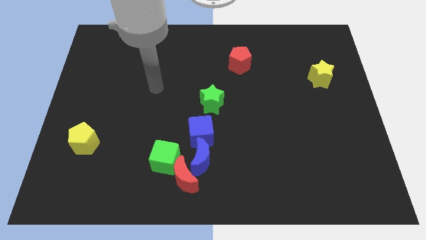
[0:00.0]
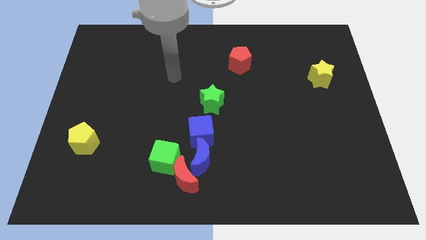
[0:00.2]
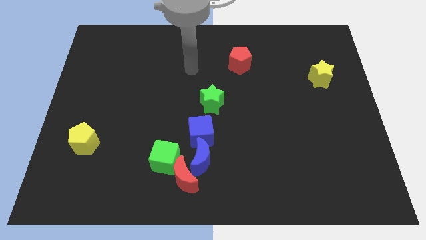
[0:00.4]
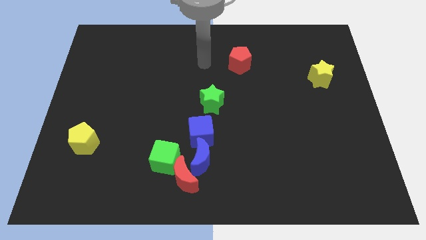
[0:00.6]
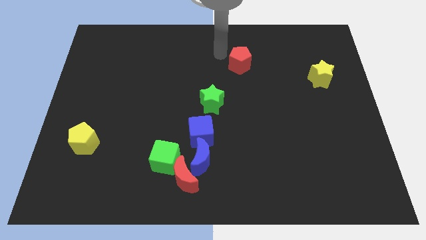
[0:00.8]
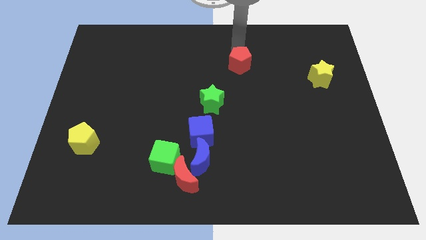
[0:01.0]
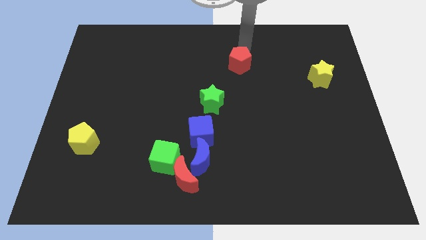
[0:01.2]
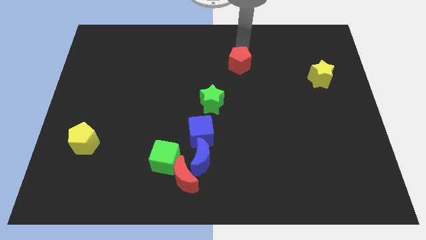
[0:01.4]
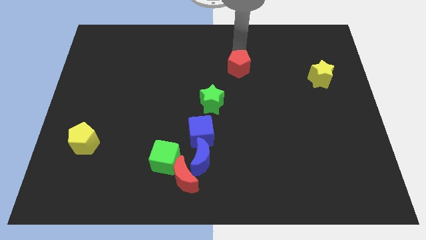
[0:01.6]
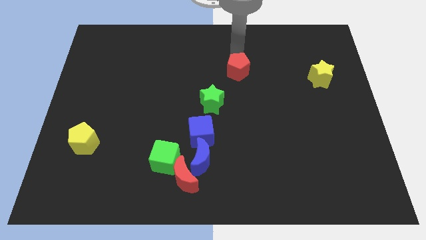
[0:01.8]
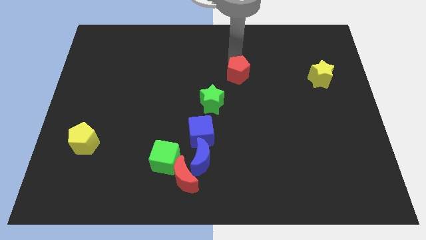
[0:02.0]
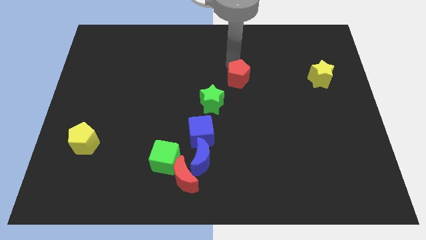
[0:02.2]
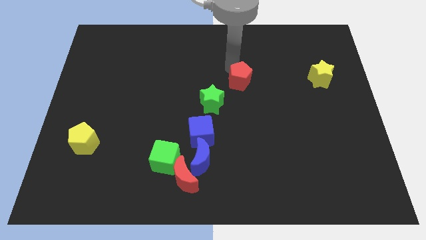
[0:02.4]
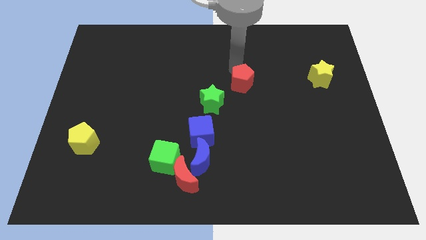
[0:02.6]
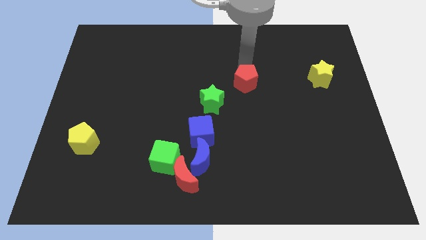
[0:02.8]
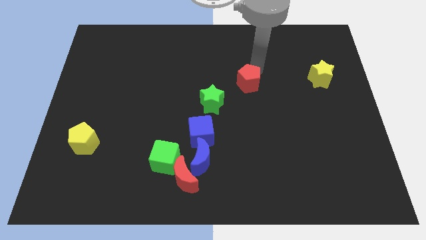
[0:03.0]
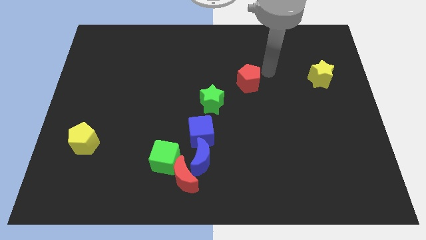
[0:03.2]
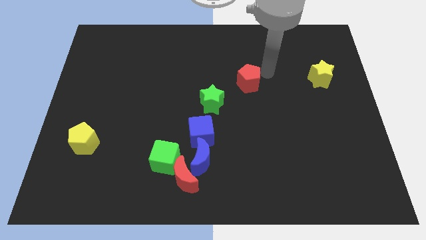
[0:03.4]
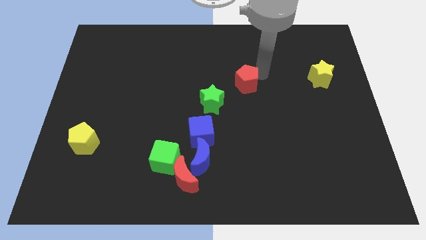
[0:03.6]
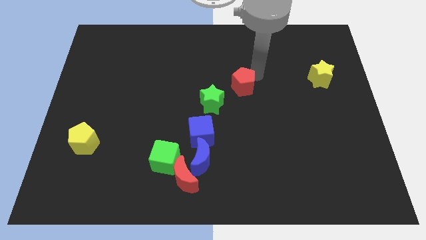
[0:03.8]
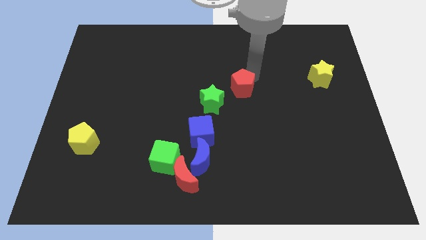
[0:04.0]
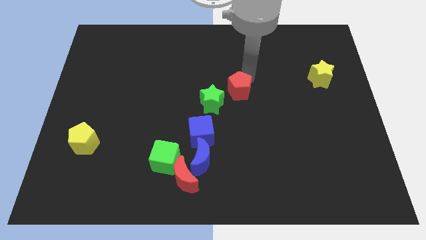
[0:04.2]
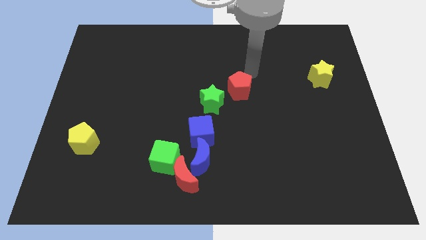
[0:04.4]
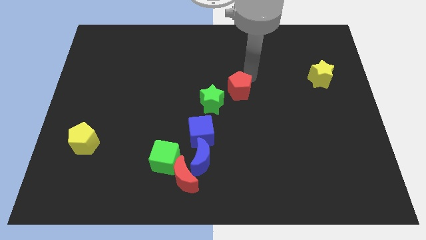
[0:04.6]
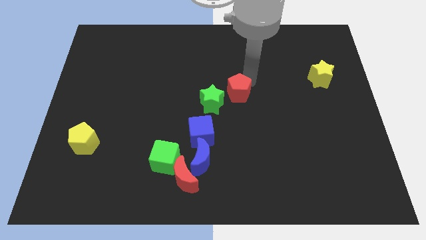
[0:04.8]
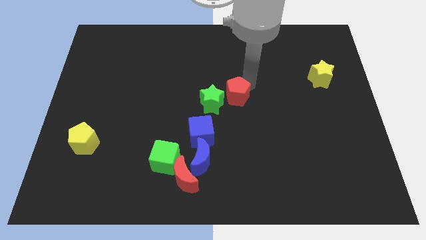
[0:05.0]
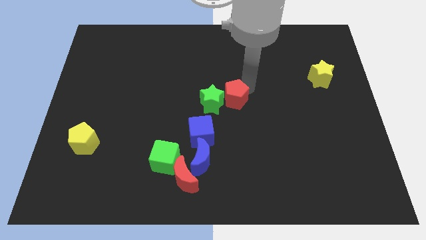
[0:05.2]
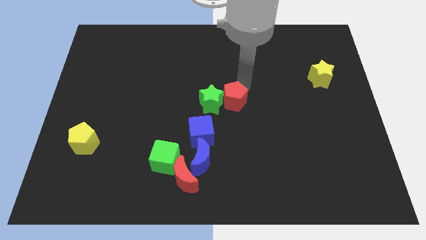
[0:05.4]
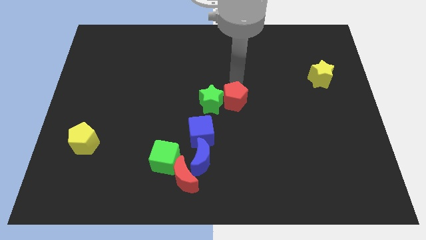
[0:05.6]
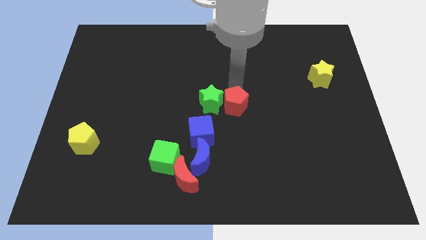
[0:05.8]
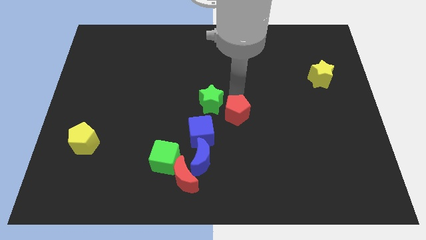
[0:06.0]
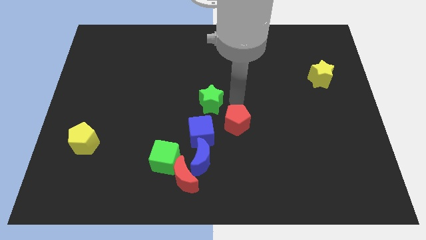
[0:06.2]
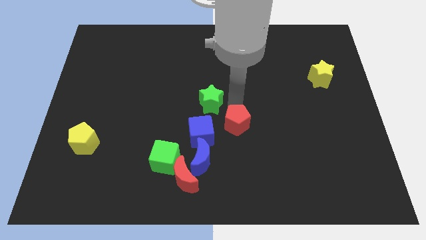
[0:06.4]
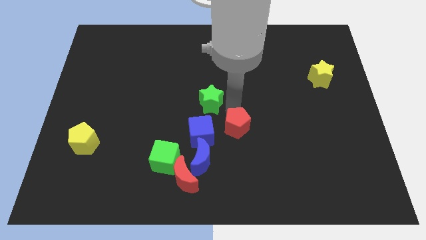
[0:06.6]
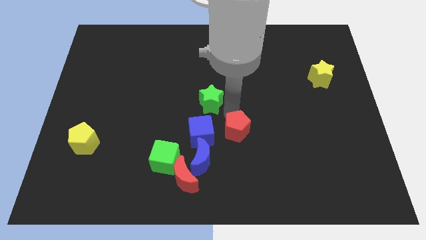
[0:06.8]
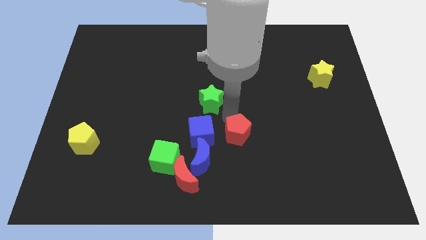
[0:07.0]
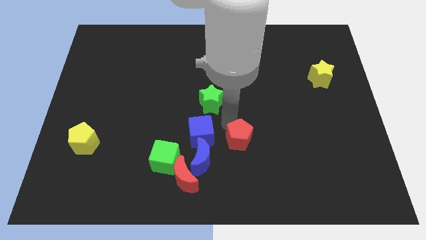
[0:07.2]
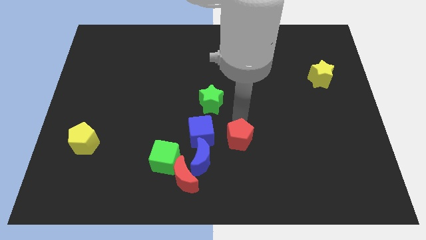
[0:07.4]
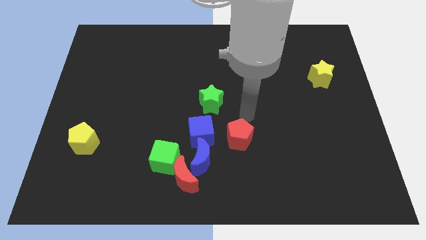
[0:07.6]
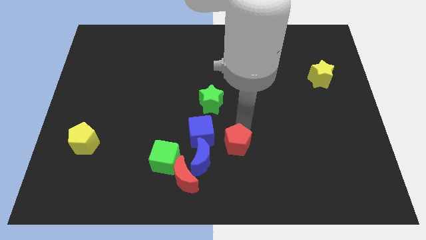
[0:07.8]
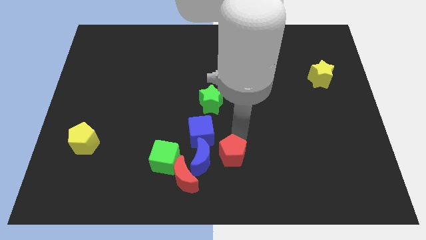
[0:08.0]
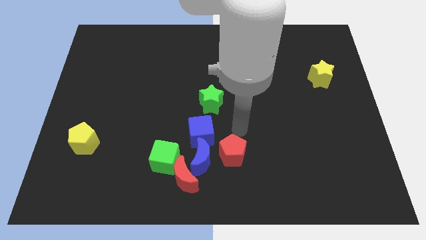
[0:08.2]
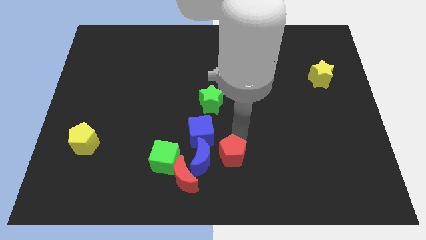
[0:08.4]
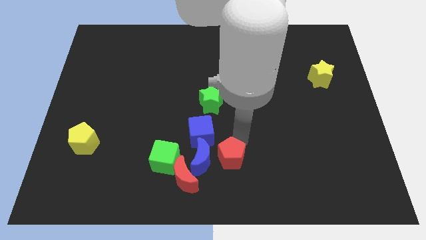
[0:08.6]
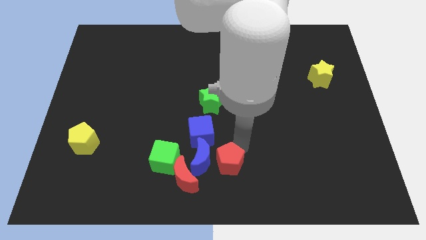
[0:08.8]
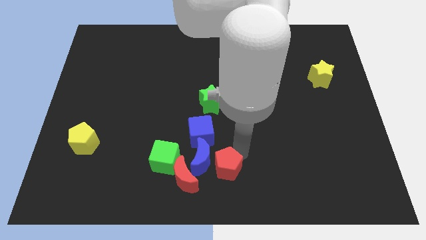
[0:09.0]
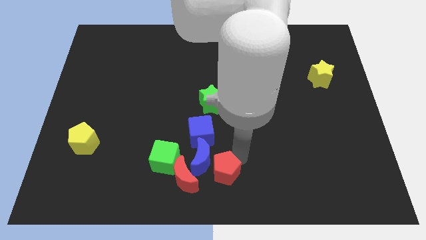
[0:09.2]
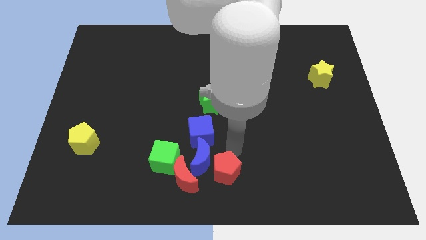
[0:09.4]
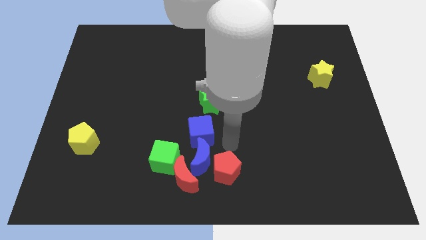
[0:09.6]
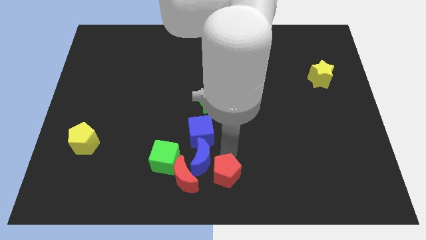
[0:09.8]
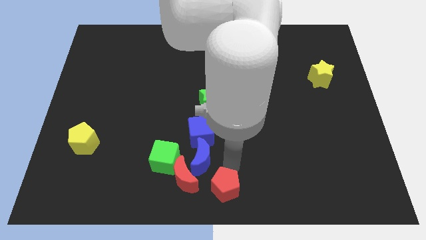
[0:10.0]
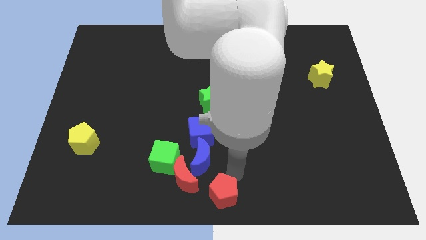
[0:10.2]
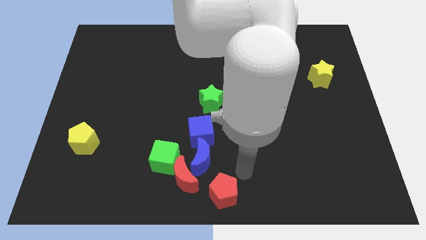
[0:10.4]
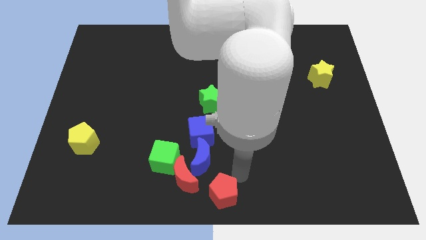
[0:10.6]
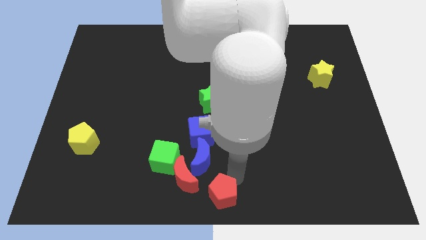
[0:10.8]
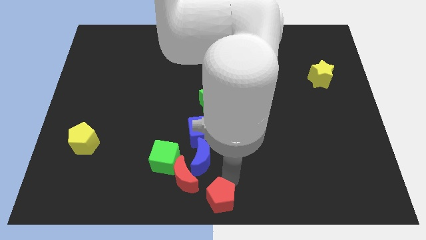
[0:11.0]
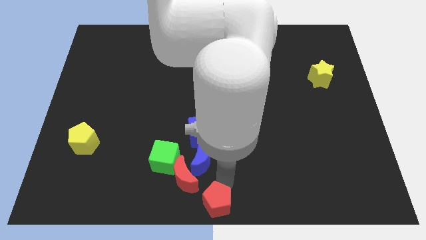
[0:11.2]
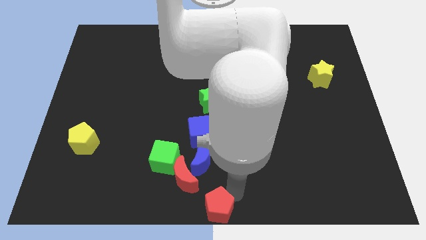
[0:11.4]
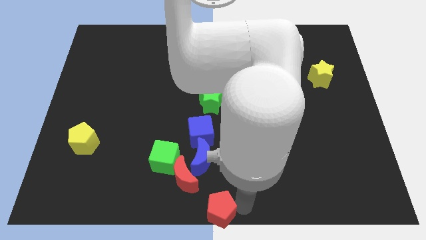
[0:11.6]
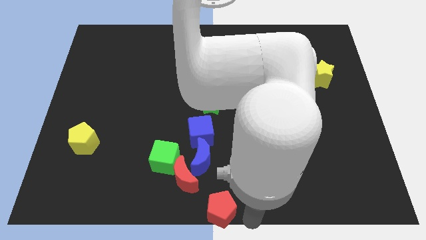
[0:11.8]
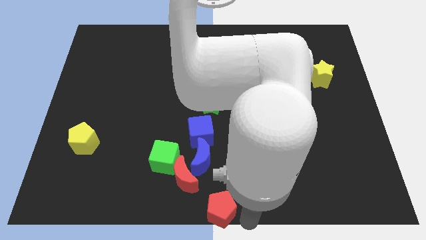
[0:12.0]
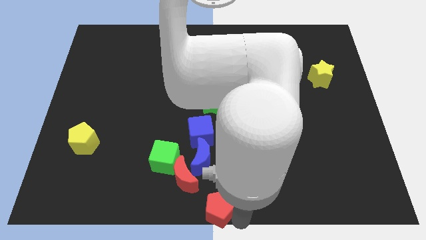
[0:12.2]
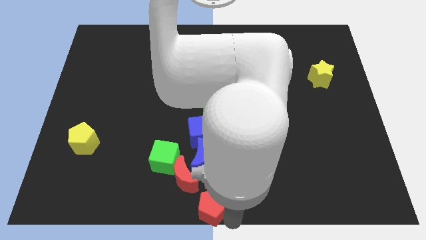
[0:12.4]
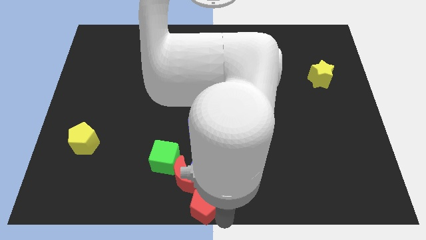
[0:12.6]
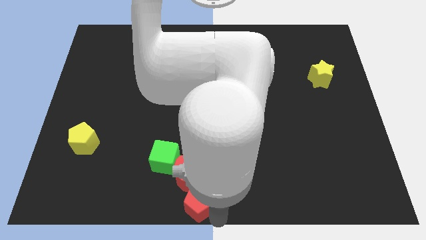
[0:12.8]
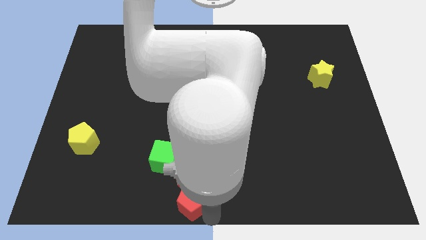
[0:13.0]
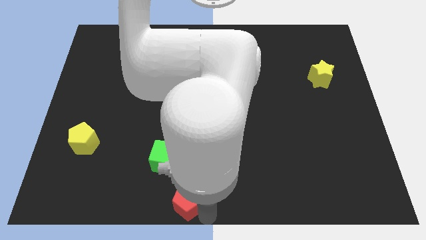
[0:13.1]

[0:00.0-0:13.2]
move the red pentagon to the bottom left side of the blue moon
